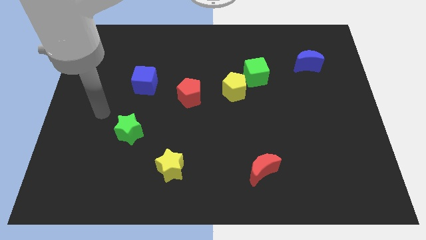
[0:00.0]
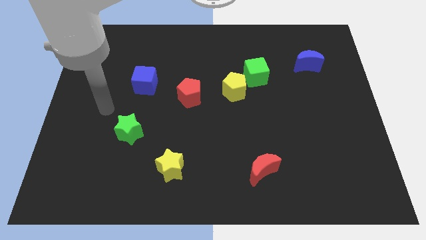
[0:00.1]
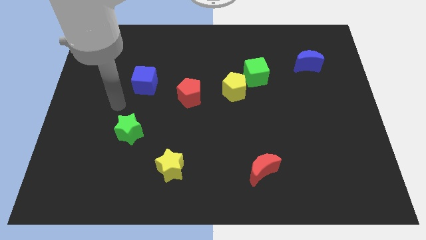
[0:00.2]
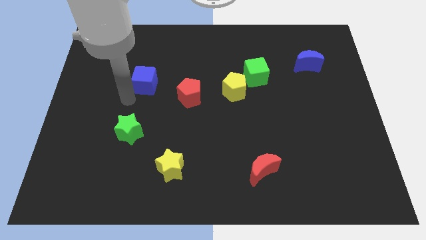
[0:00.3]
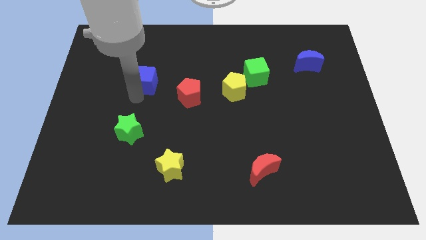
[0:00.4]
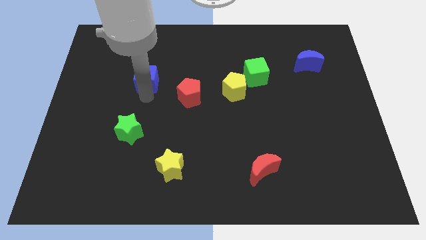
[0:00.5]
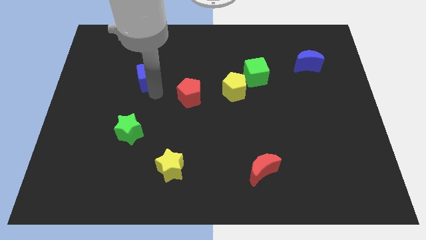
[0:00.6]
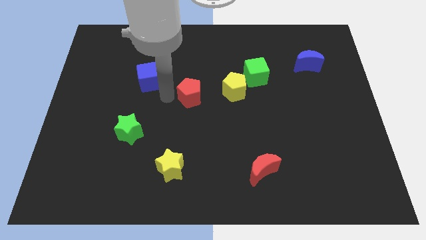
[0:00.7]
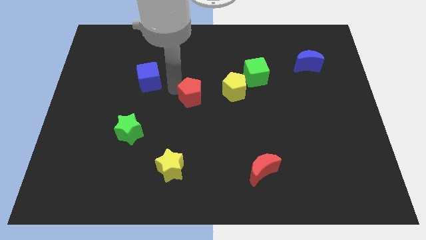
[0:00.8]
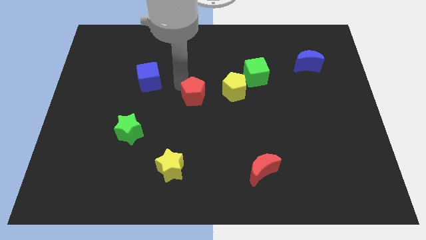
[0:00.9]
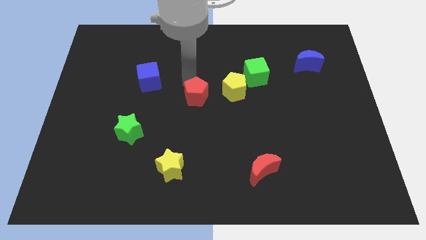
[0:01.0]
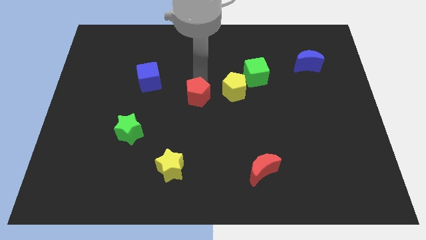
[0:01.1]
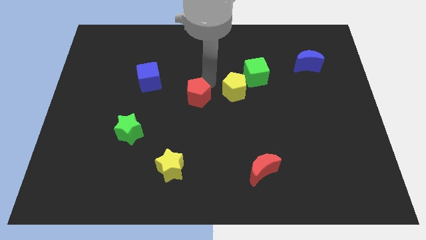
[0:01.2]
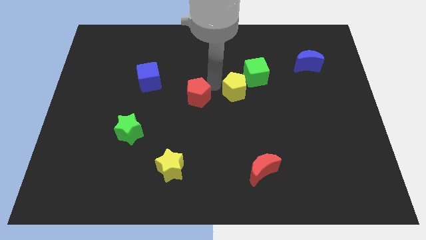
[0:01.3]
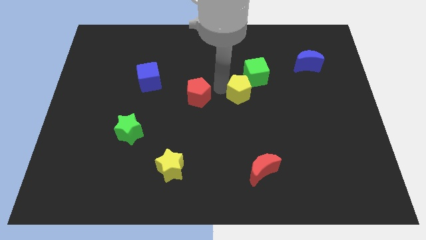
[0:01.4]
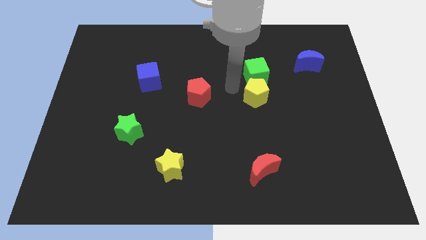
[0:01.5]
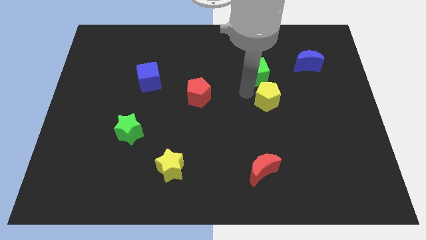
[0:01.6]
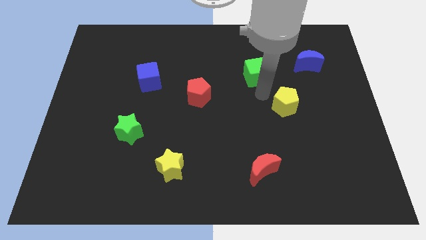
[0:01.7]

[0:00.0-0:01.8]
separate the green cube from the yellow pentagon

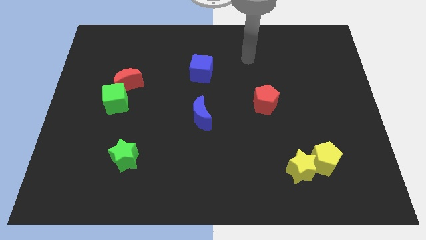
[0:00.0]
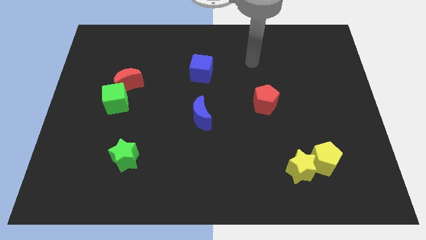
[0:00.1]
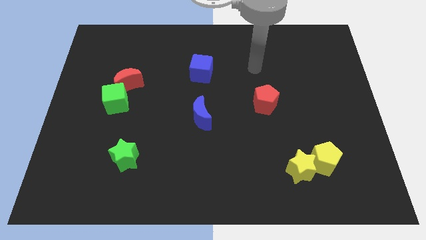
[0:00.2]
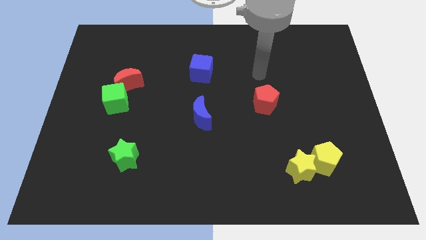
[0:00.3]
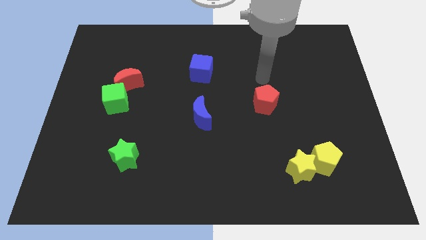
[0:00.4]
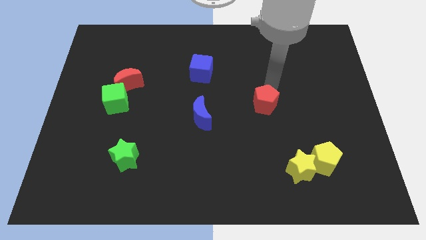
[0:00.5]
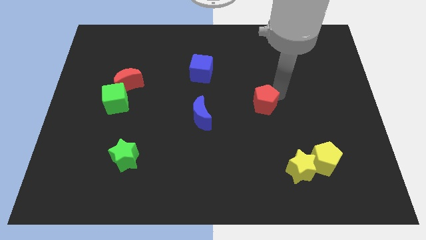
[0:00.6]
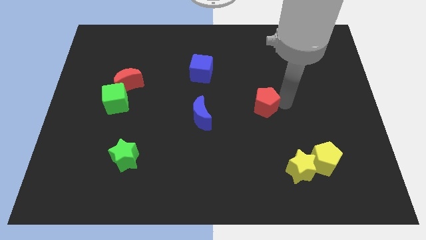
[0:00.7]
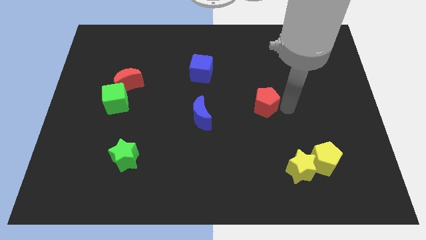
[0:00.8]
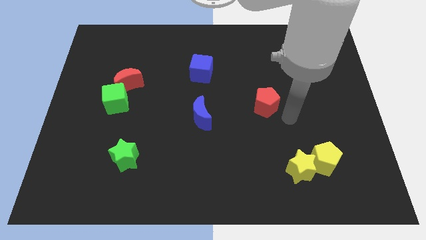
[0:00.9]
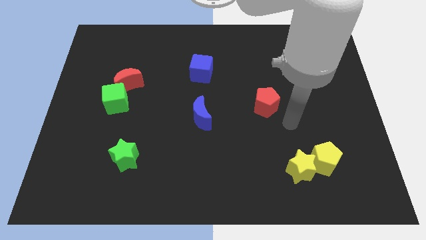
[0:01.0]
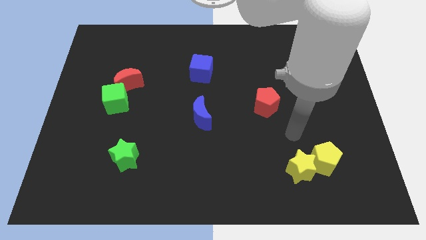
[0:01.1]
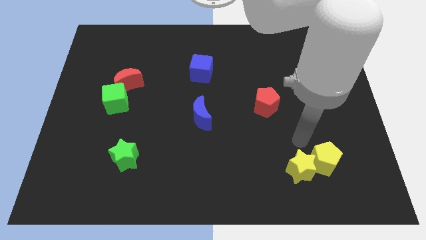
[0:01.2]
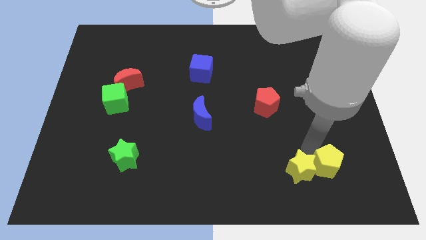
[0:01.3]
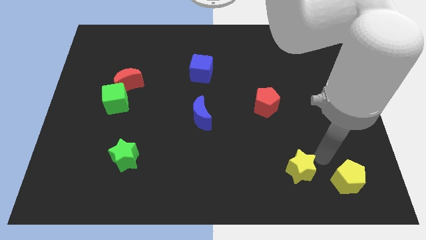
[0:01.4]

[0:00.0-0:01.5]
separate the yellow star from the yellow pentagon

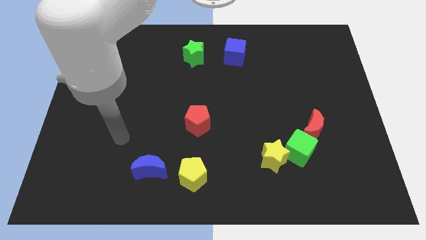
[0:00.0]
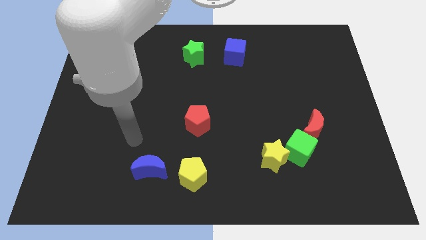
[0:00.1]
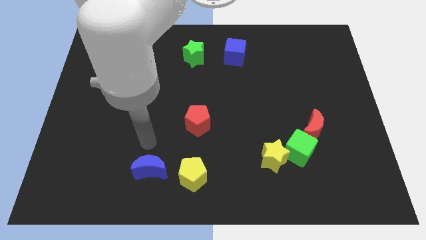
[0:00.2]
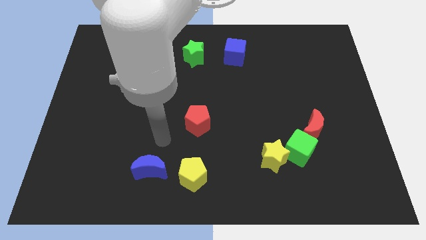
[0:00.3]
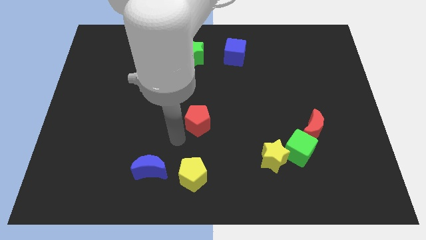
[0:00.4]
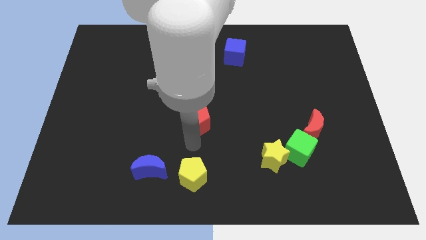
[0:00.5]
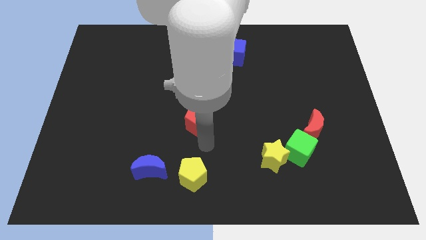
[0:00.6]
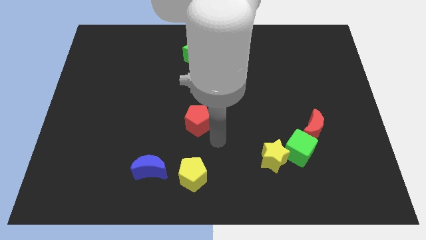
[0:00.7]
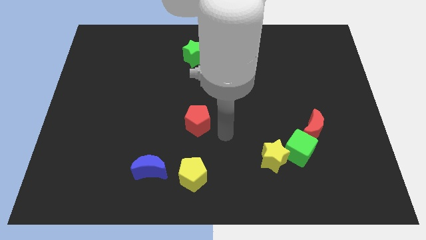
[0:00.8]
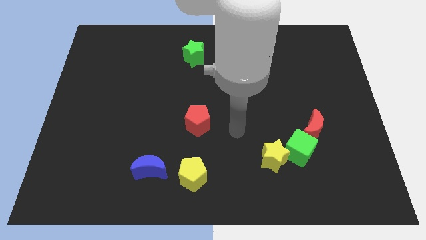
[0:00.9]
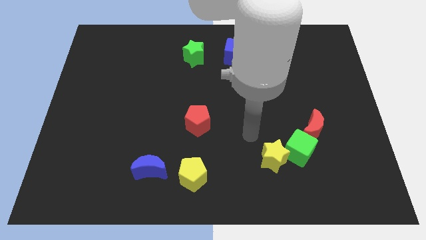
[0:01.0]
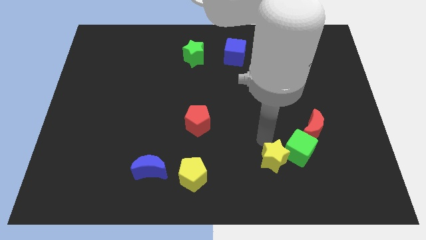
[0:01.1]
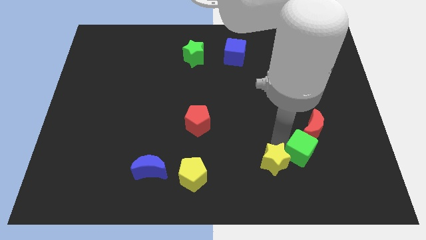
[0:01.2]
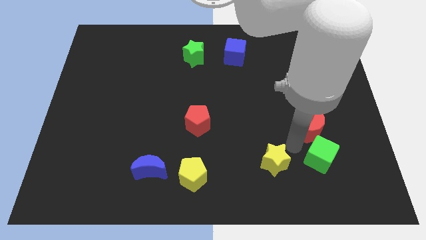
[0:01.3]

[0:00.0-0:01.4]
pull the yellow star apart from the green cube

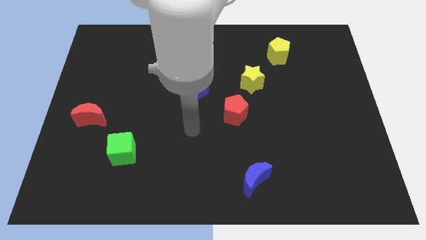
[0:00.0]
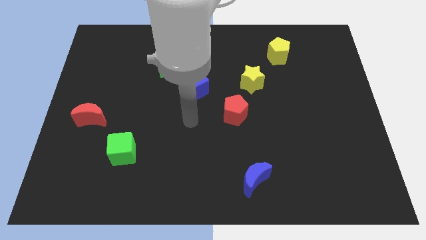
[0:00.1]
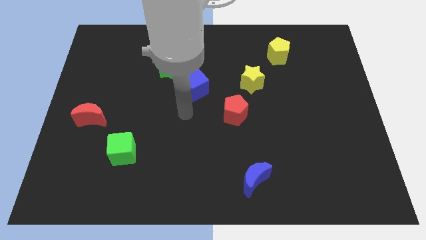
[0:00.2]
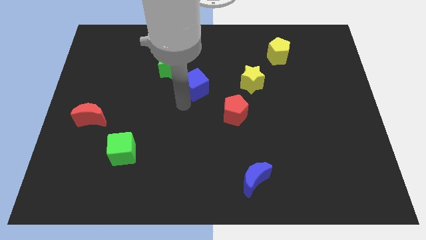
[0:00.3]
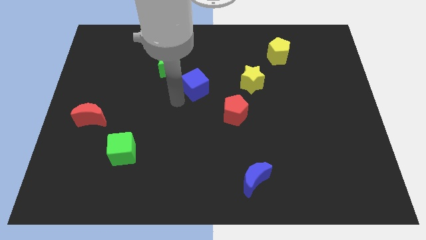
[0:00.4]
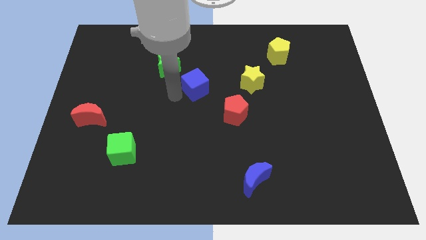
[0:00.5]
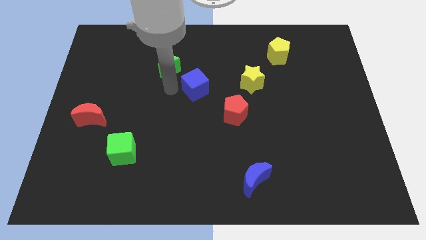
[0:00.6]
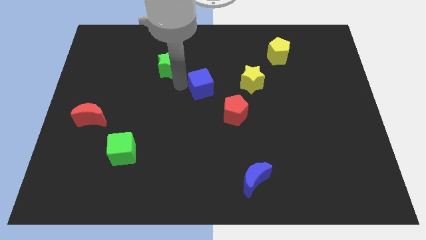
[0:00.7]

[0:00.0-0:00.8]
move the blue cube away from the green star

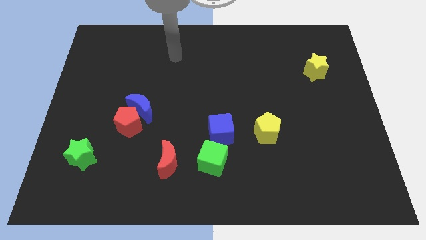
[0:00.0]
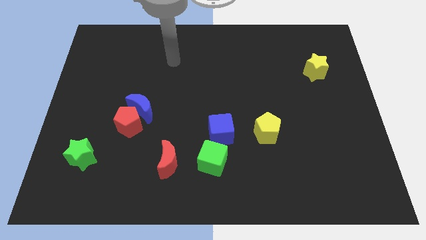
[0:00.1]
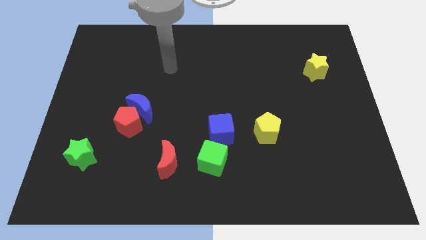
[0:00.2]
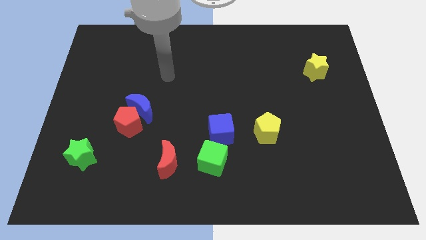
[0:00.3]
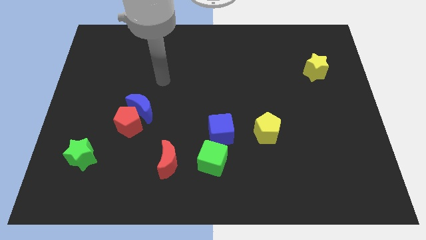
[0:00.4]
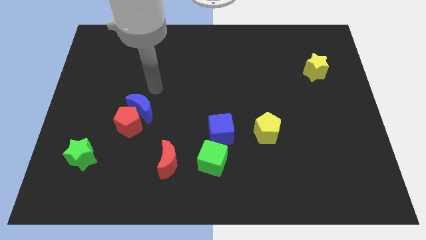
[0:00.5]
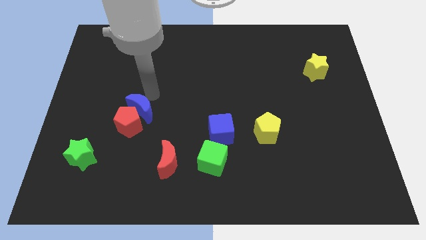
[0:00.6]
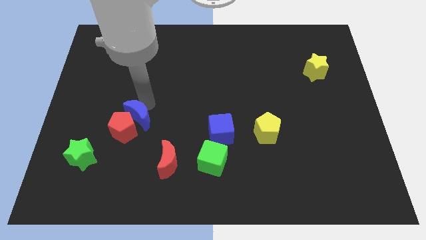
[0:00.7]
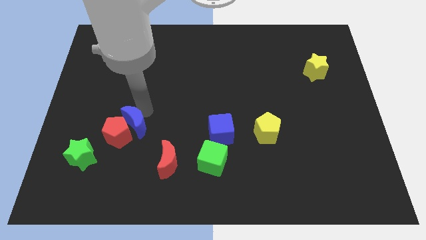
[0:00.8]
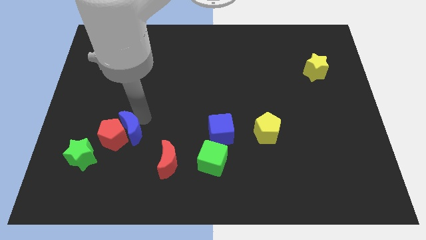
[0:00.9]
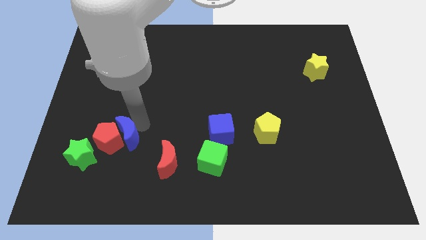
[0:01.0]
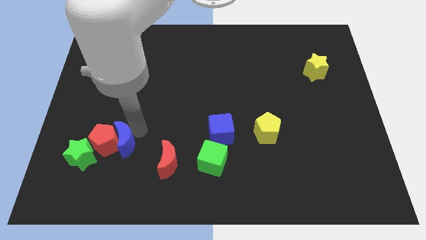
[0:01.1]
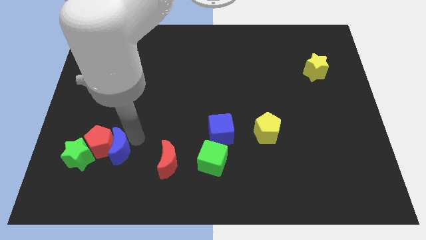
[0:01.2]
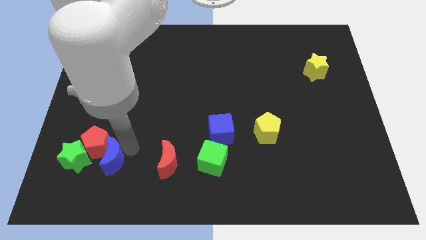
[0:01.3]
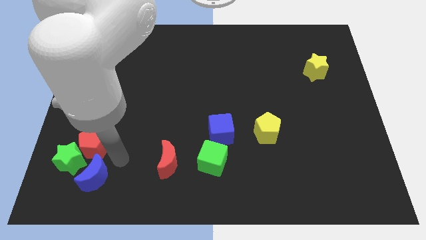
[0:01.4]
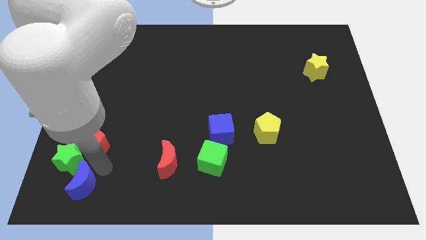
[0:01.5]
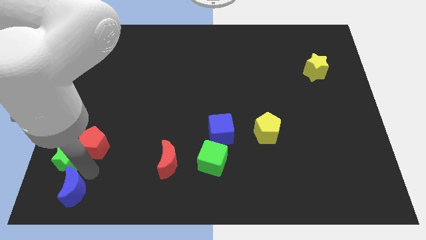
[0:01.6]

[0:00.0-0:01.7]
pull the red pentagon apart from the blue moon

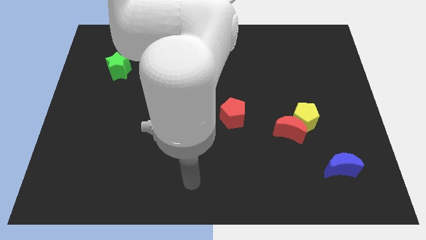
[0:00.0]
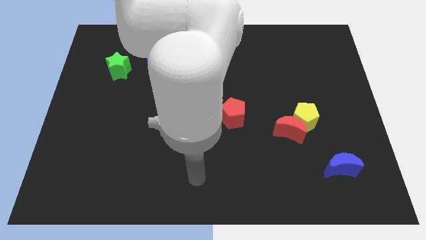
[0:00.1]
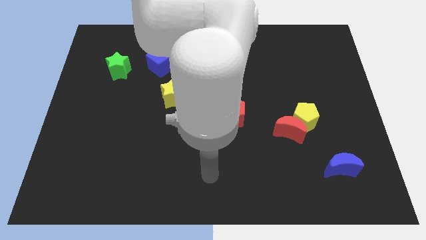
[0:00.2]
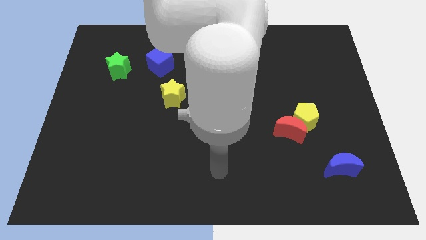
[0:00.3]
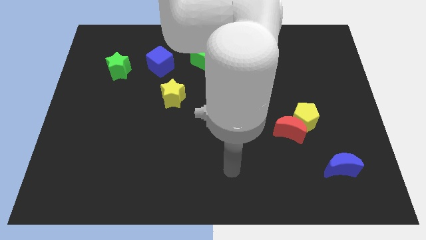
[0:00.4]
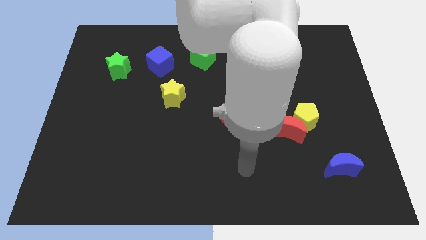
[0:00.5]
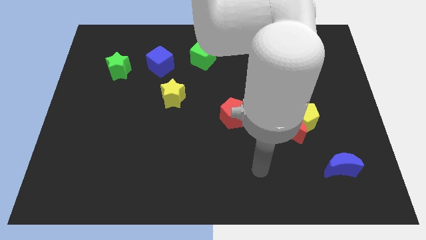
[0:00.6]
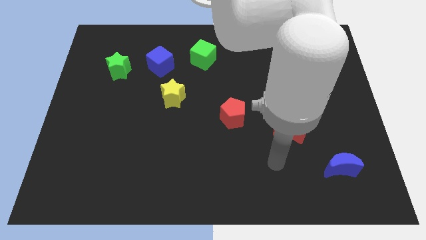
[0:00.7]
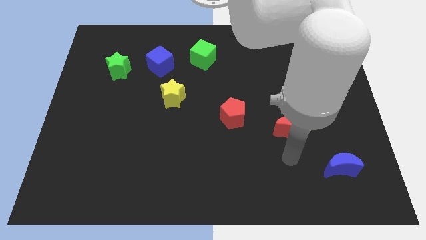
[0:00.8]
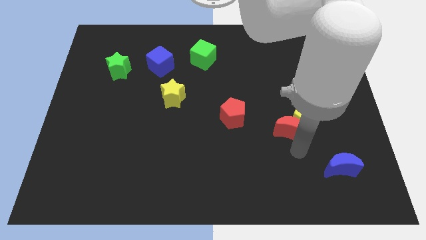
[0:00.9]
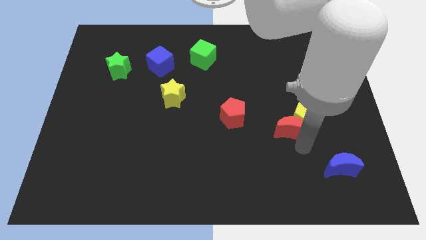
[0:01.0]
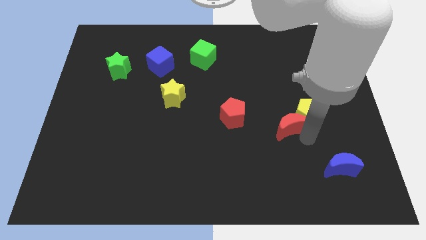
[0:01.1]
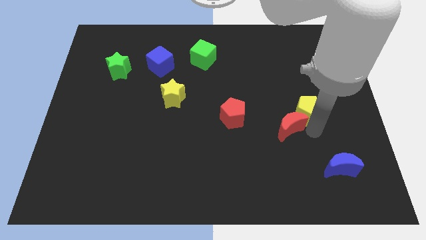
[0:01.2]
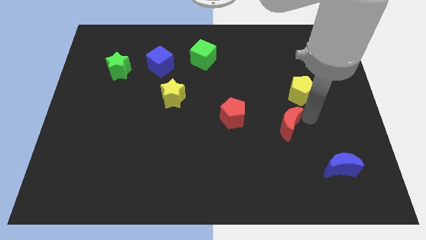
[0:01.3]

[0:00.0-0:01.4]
separate the red moon from the yellow pentagon

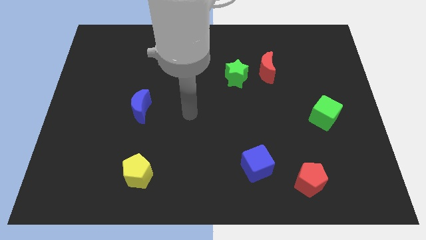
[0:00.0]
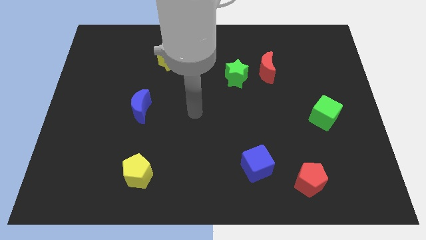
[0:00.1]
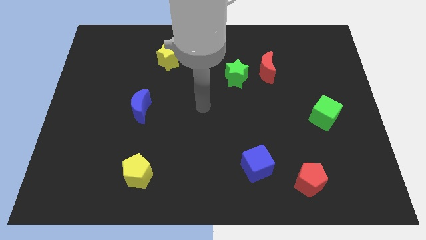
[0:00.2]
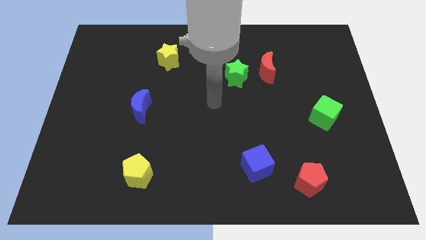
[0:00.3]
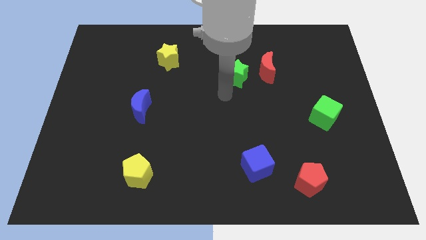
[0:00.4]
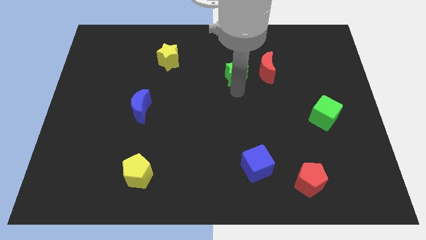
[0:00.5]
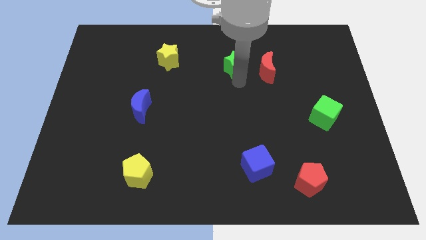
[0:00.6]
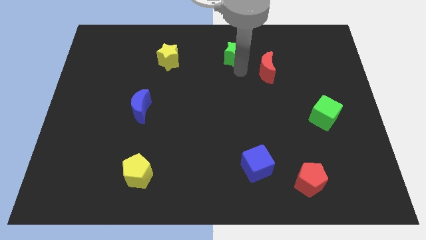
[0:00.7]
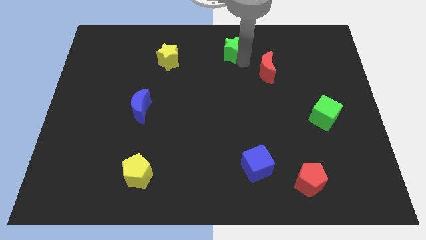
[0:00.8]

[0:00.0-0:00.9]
pull the red moon apart from the green star
